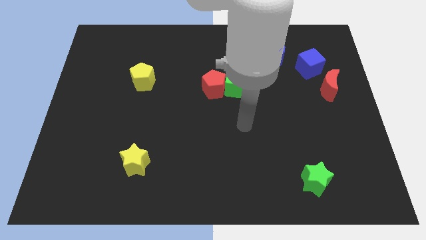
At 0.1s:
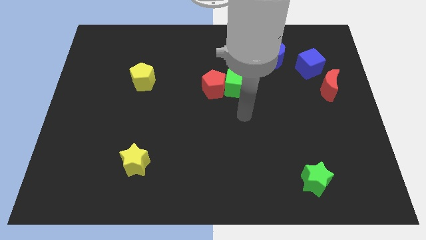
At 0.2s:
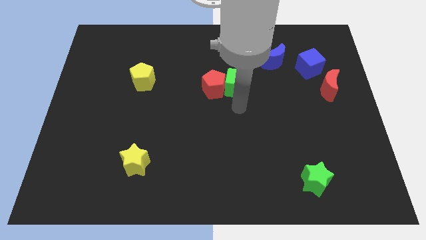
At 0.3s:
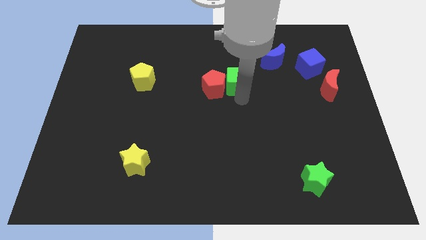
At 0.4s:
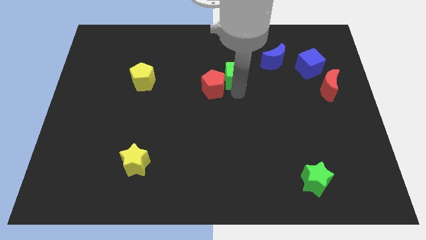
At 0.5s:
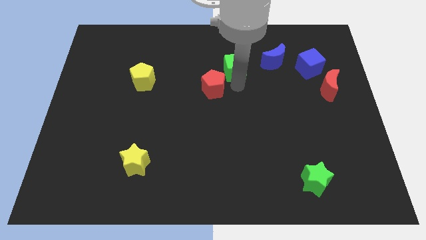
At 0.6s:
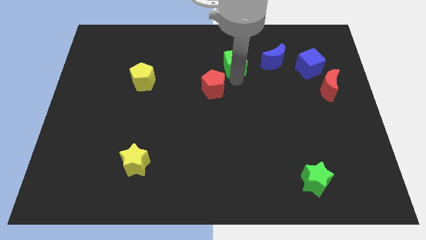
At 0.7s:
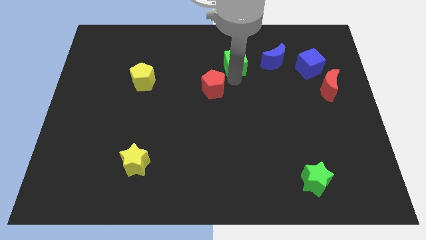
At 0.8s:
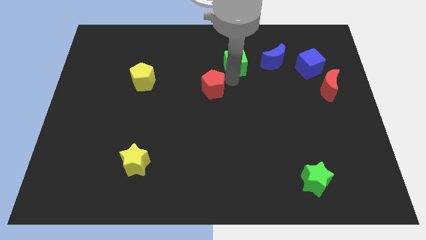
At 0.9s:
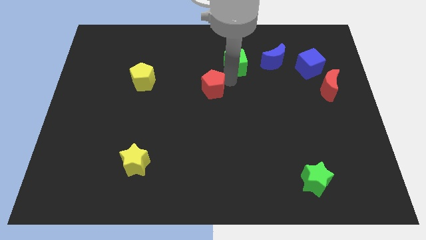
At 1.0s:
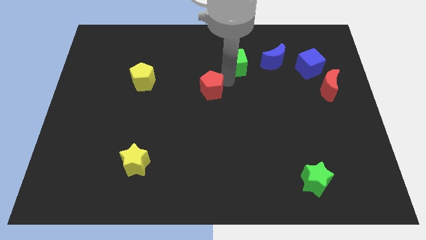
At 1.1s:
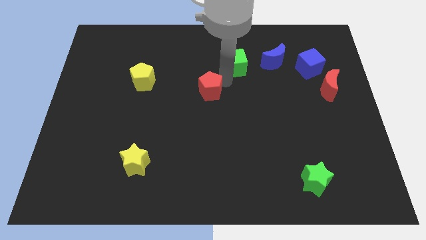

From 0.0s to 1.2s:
move the red pentagon away from the green cube

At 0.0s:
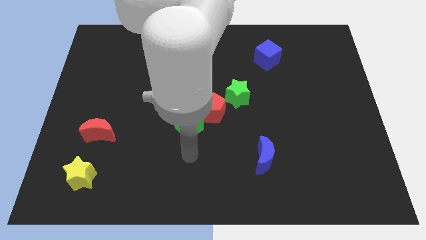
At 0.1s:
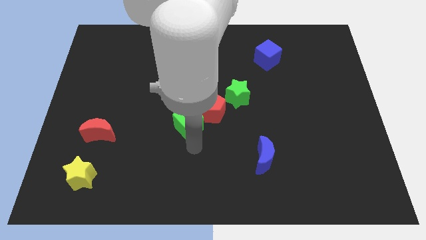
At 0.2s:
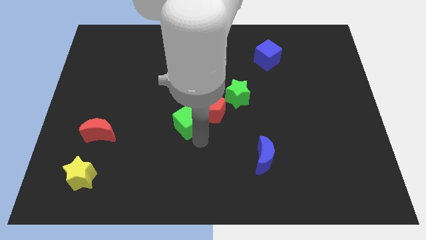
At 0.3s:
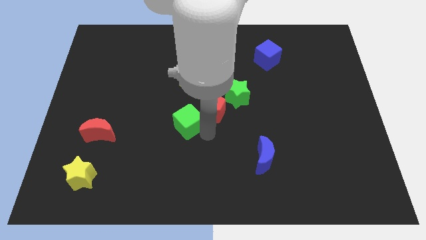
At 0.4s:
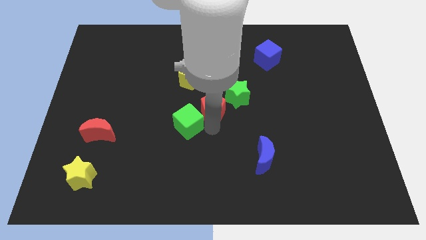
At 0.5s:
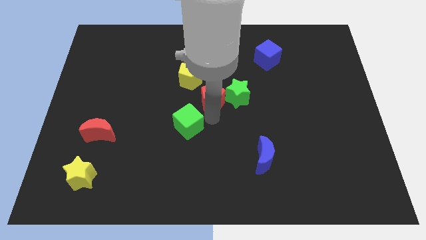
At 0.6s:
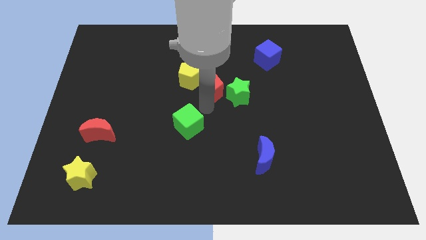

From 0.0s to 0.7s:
separate the green cube from the red pentagon

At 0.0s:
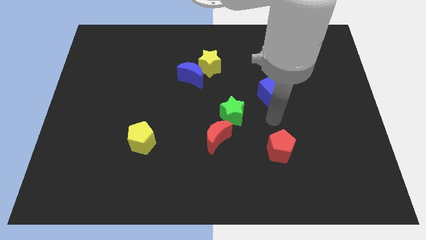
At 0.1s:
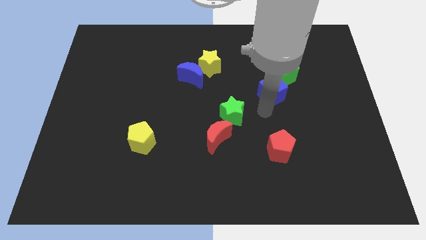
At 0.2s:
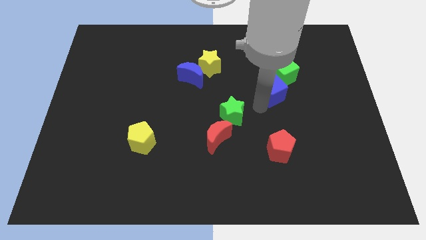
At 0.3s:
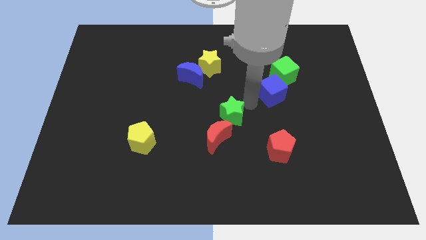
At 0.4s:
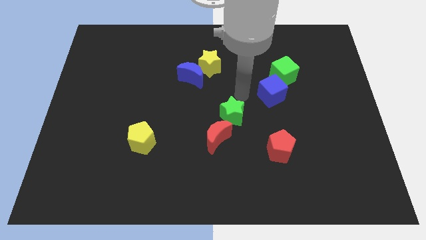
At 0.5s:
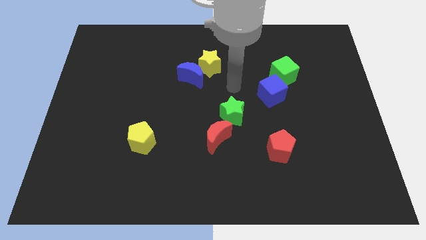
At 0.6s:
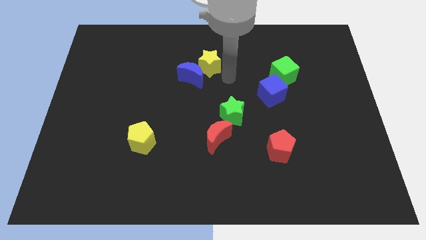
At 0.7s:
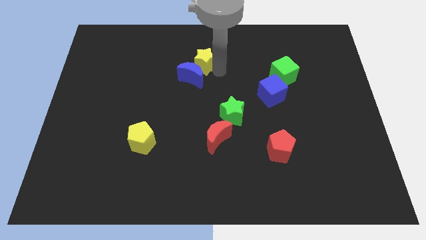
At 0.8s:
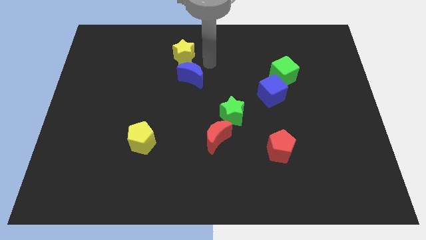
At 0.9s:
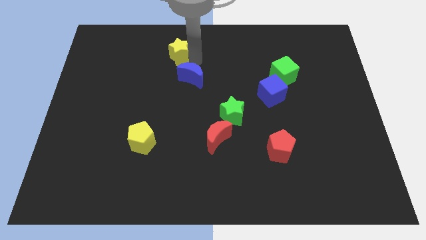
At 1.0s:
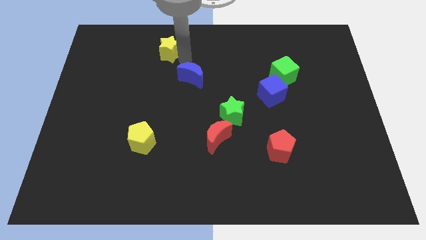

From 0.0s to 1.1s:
pull the blue moon apart from the yellow star

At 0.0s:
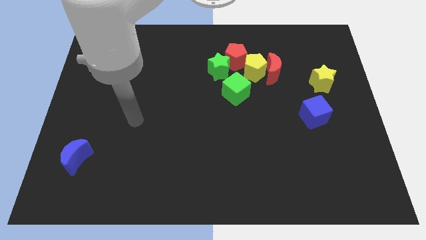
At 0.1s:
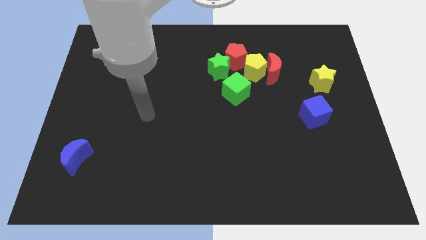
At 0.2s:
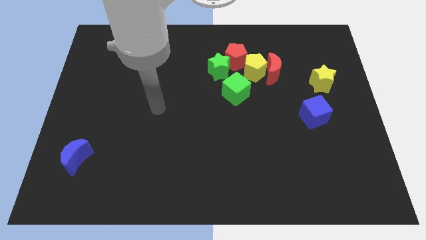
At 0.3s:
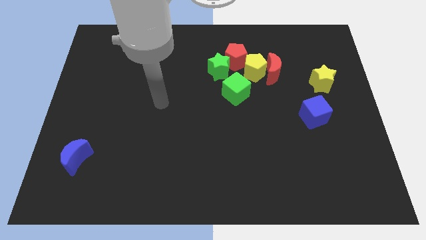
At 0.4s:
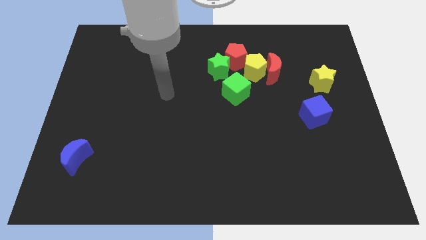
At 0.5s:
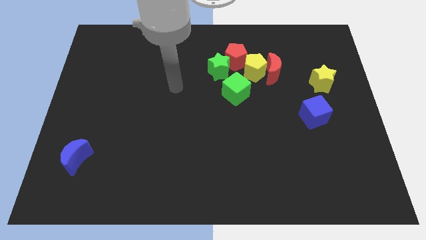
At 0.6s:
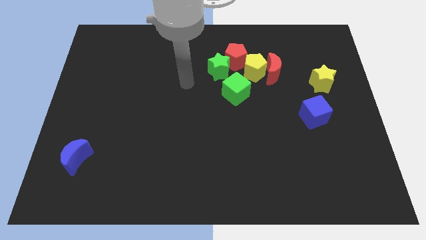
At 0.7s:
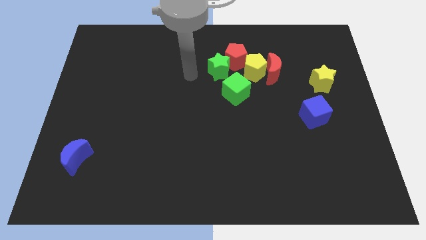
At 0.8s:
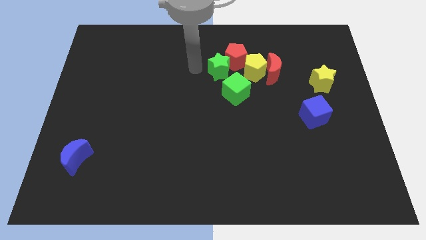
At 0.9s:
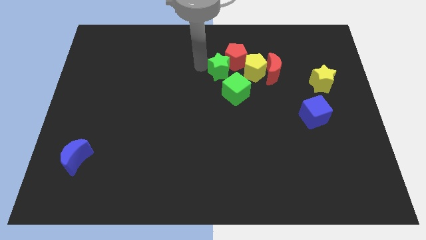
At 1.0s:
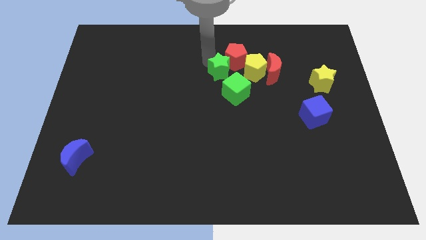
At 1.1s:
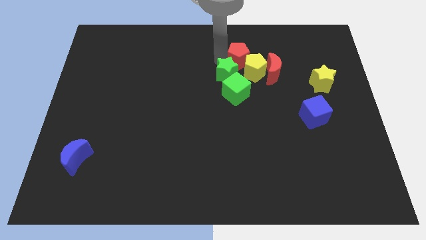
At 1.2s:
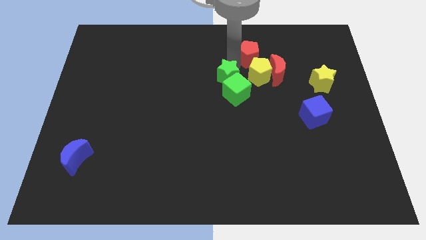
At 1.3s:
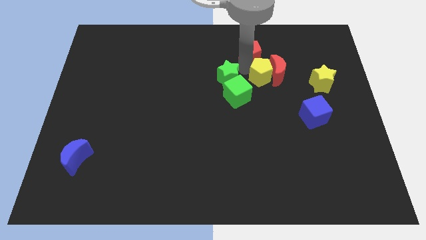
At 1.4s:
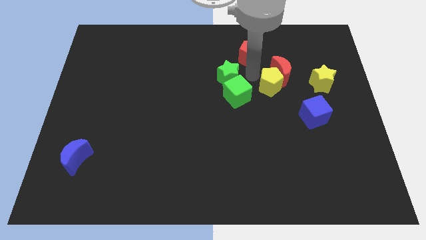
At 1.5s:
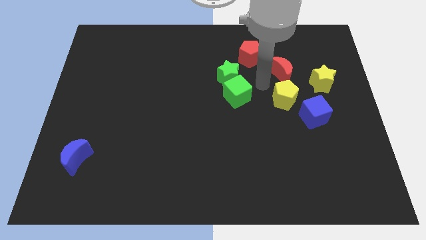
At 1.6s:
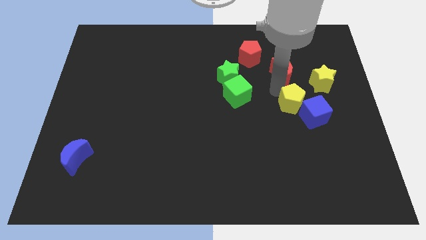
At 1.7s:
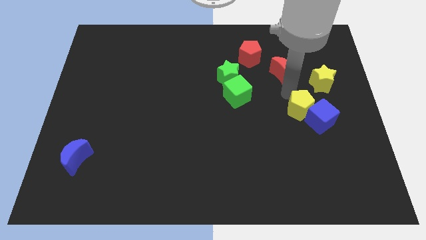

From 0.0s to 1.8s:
pull the red moon apart from the yellow pentagon

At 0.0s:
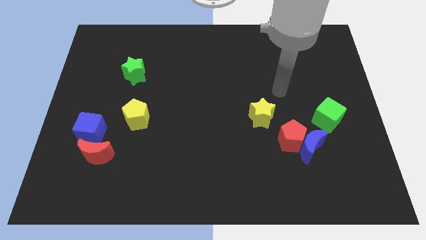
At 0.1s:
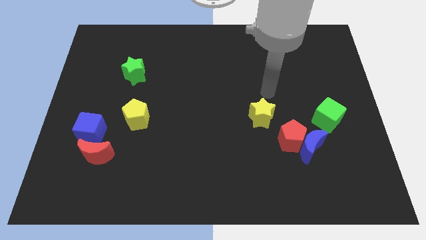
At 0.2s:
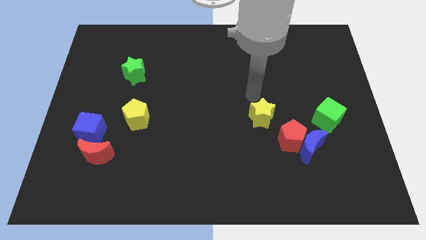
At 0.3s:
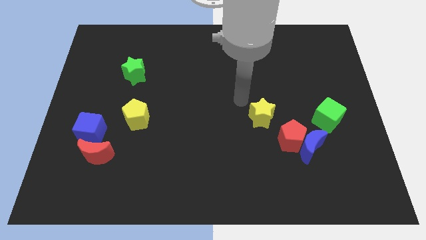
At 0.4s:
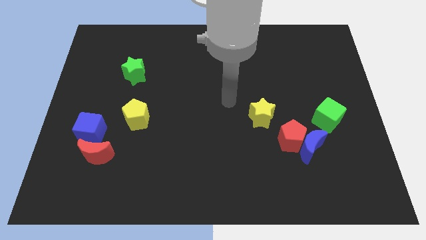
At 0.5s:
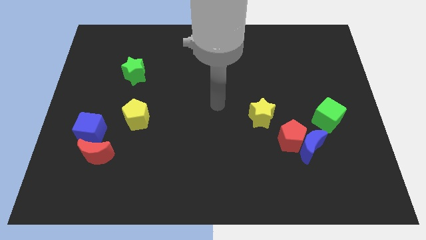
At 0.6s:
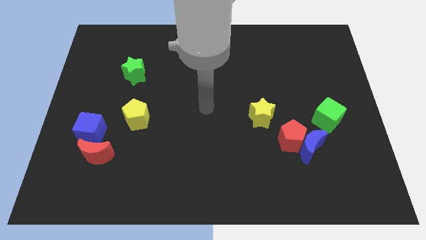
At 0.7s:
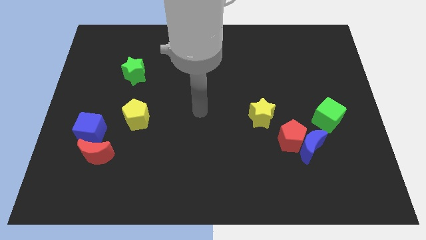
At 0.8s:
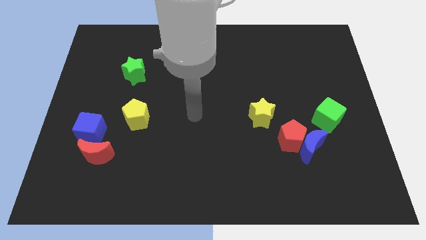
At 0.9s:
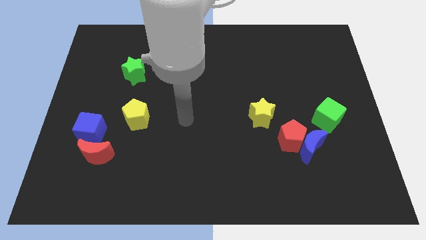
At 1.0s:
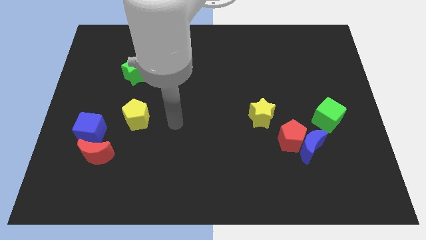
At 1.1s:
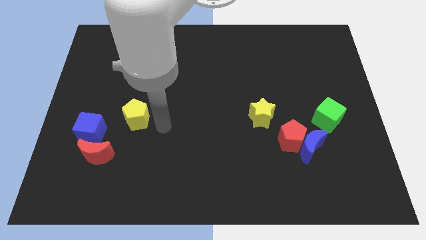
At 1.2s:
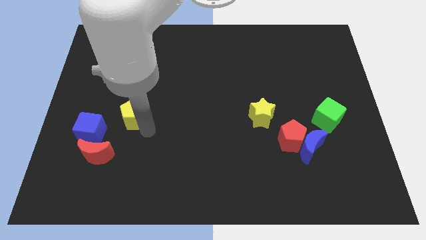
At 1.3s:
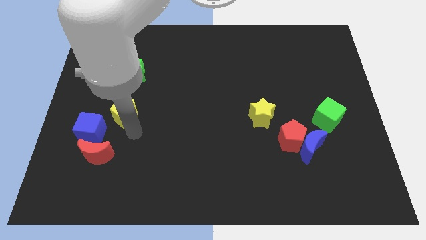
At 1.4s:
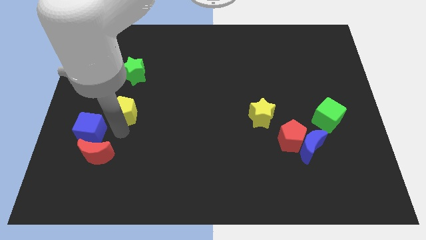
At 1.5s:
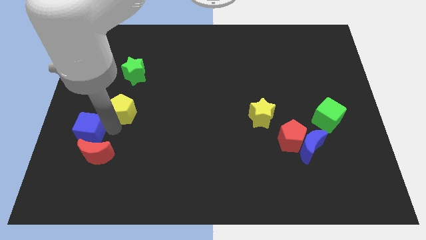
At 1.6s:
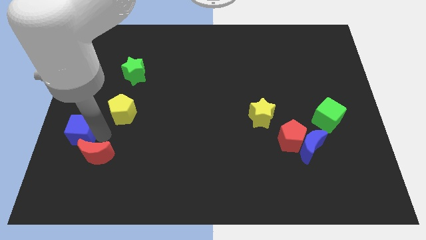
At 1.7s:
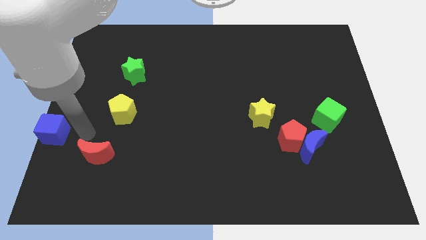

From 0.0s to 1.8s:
pull the red moon apart from the blue cube

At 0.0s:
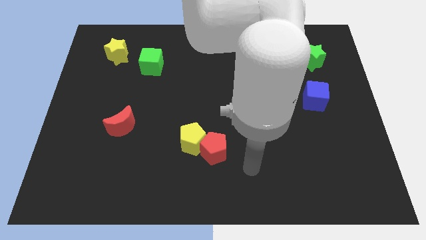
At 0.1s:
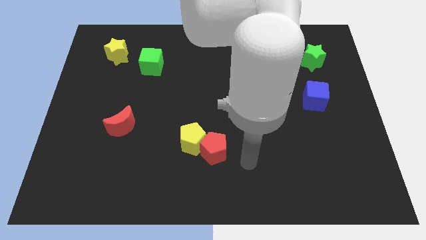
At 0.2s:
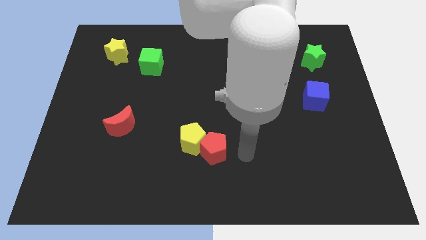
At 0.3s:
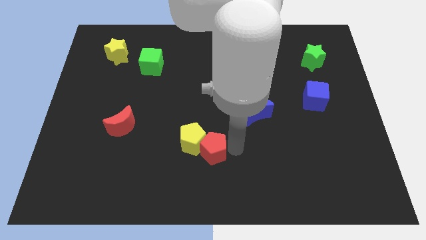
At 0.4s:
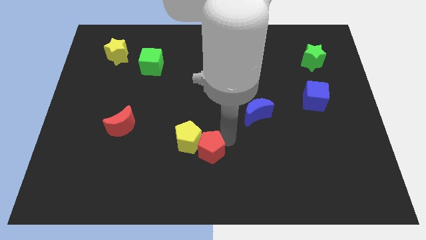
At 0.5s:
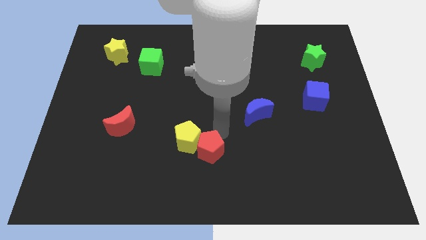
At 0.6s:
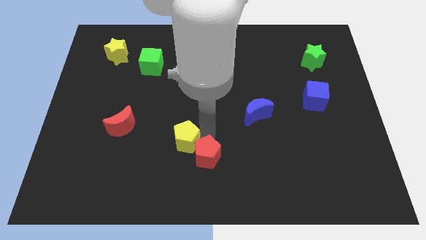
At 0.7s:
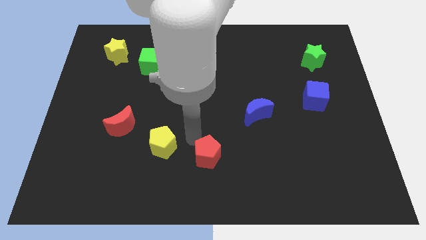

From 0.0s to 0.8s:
pull the red pentagon apart from the yellow pentagon

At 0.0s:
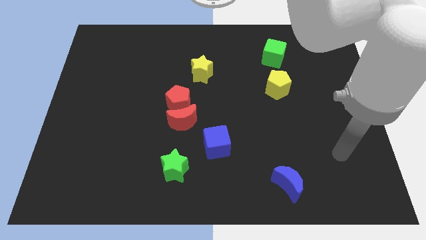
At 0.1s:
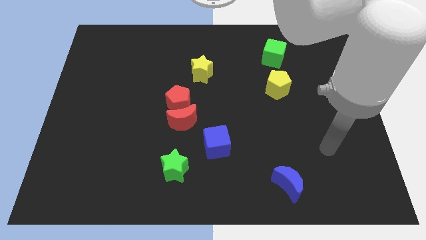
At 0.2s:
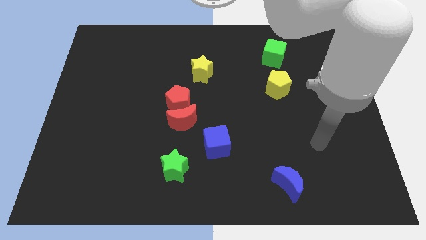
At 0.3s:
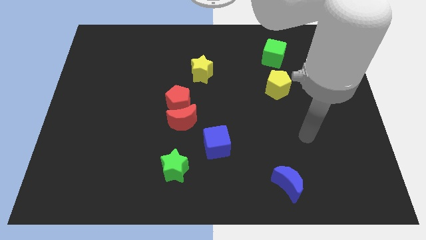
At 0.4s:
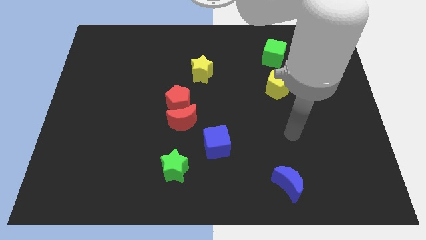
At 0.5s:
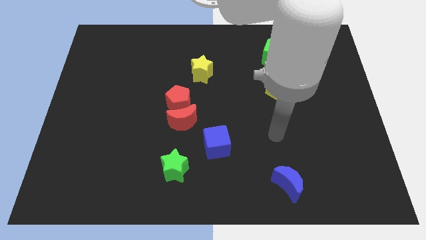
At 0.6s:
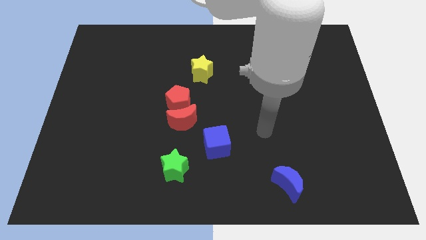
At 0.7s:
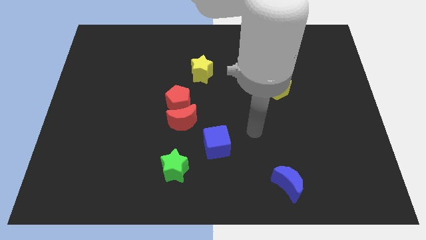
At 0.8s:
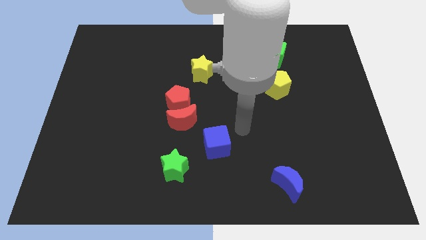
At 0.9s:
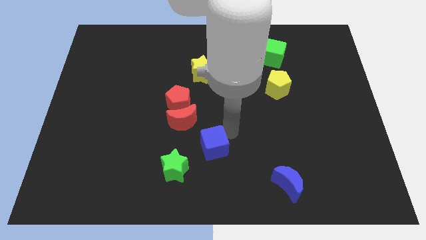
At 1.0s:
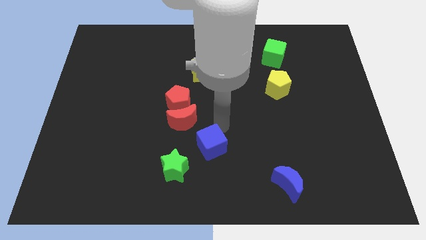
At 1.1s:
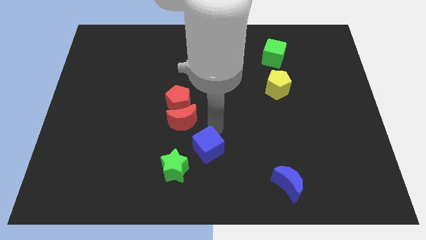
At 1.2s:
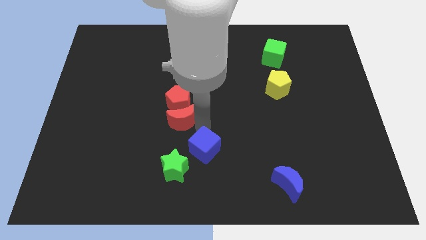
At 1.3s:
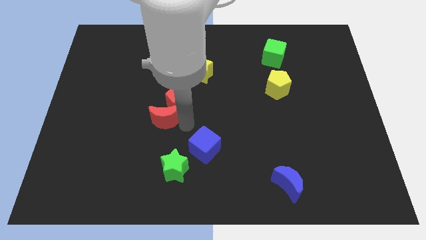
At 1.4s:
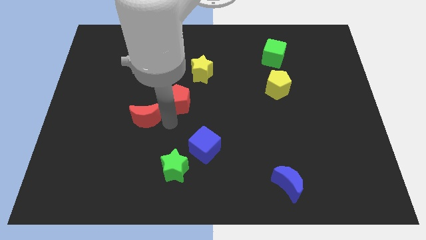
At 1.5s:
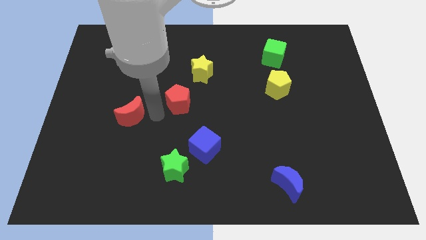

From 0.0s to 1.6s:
move the red pentagon away from the red moon

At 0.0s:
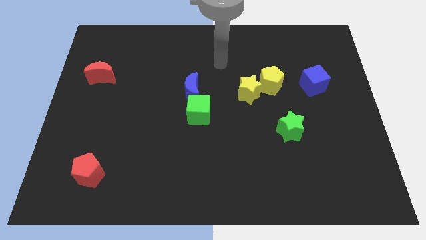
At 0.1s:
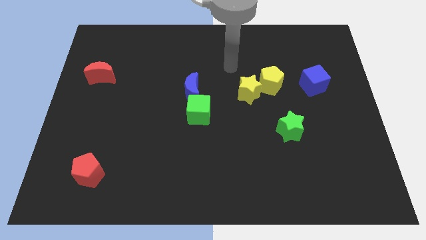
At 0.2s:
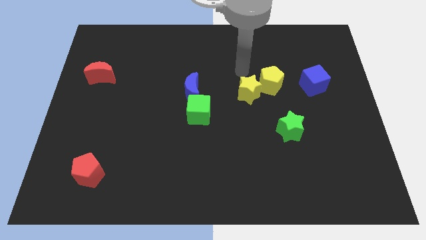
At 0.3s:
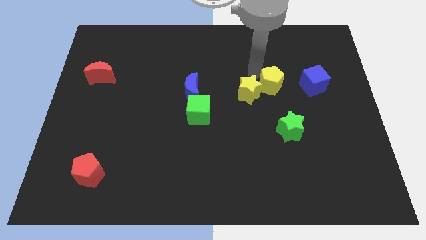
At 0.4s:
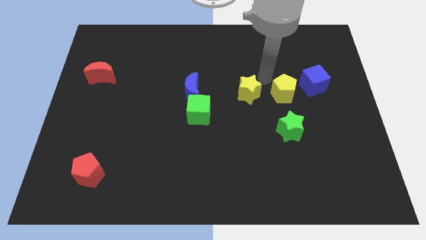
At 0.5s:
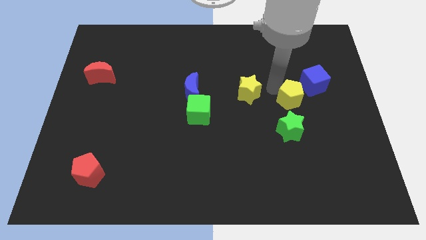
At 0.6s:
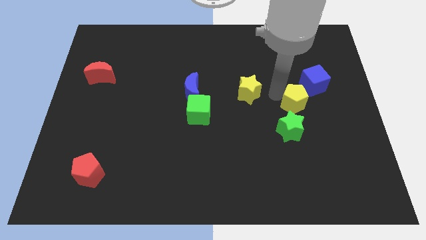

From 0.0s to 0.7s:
separate the yellow star from the yellow pentagon
